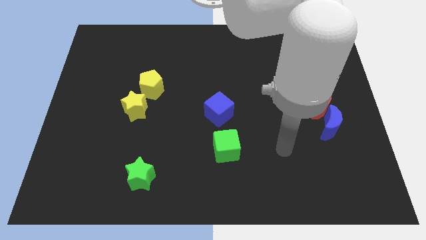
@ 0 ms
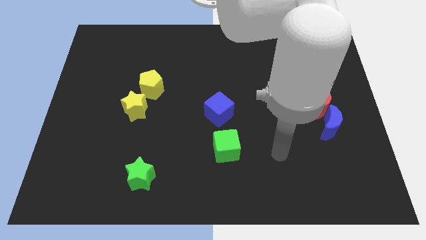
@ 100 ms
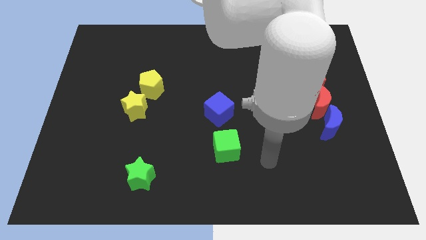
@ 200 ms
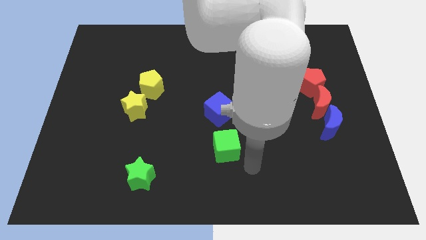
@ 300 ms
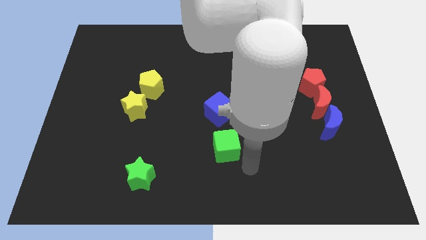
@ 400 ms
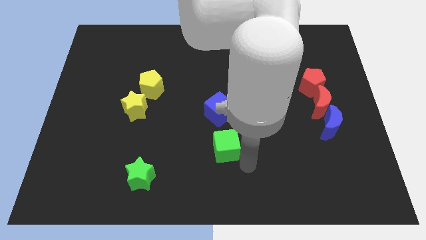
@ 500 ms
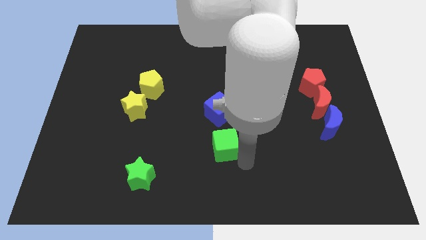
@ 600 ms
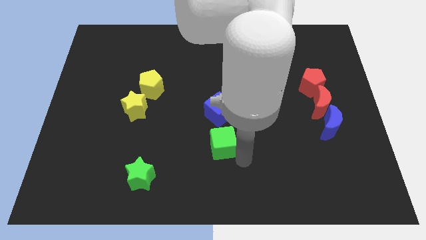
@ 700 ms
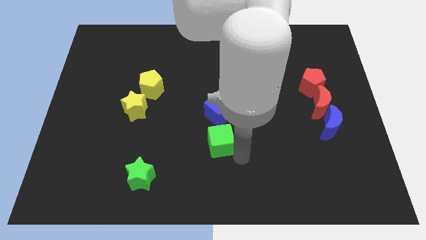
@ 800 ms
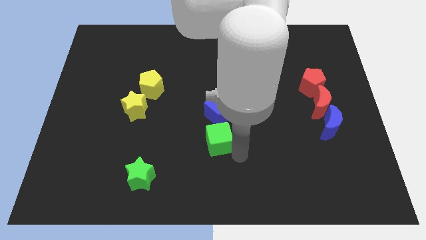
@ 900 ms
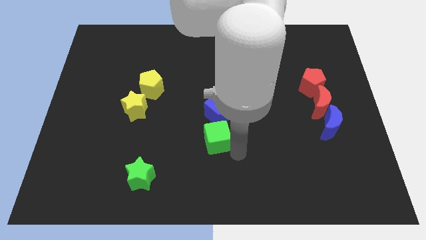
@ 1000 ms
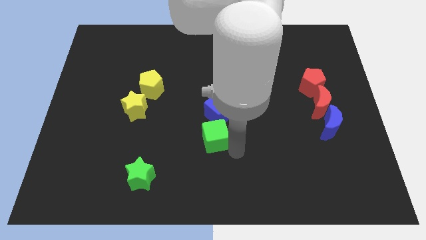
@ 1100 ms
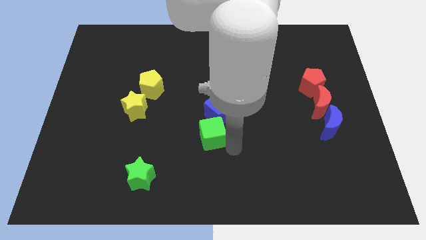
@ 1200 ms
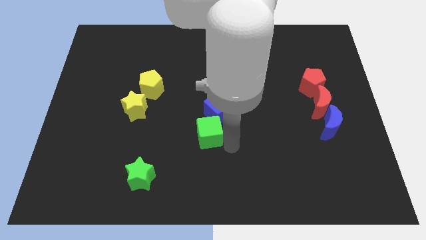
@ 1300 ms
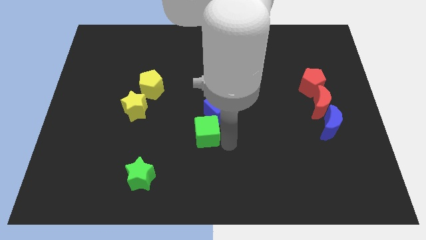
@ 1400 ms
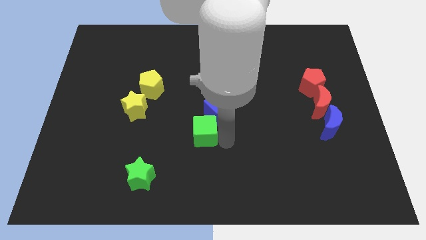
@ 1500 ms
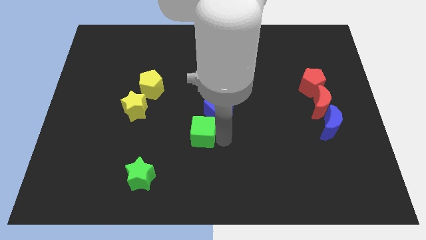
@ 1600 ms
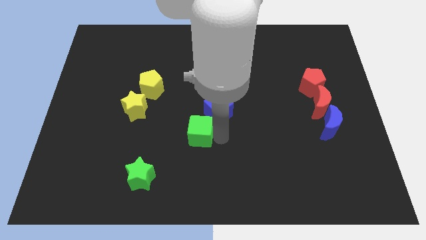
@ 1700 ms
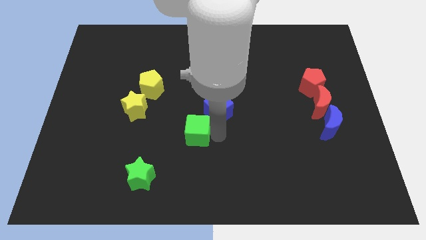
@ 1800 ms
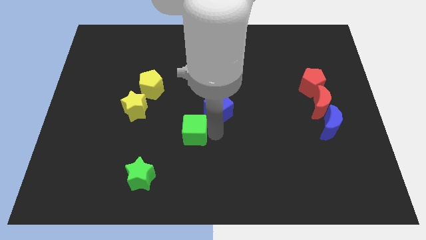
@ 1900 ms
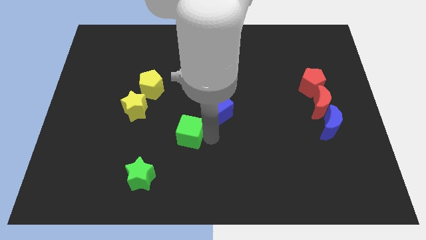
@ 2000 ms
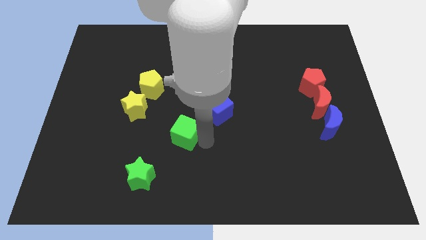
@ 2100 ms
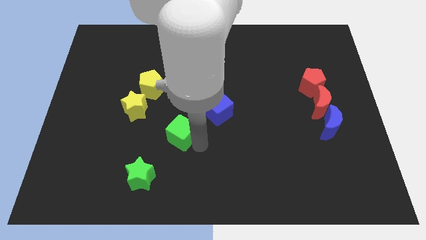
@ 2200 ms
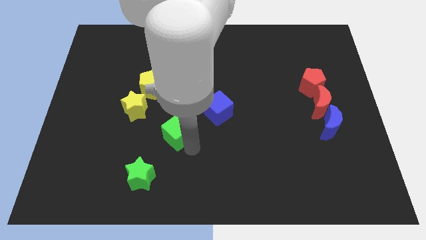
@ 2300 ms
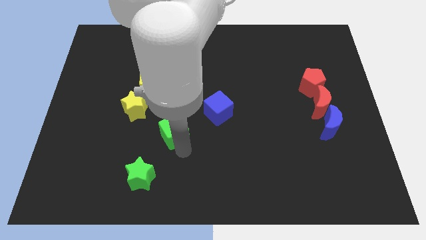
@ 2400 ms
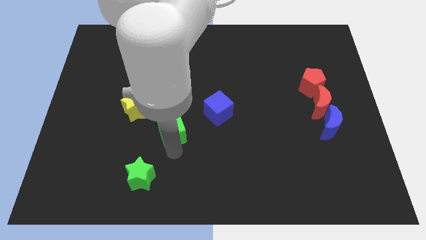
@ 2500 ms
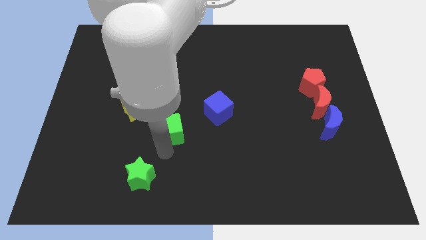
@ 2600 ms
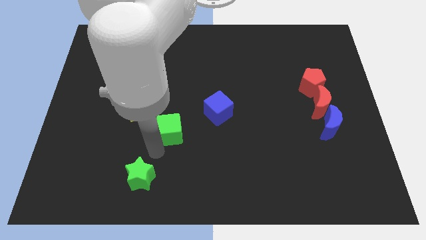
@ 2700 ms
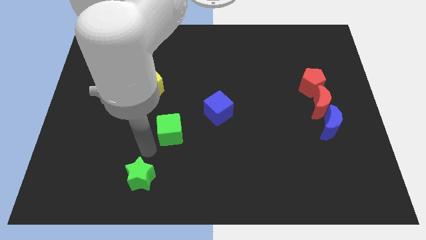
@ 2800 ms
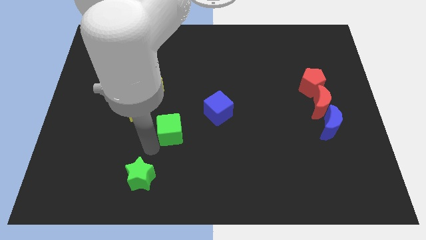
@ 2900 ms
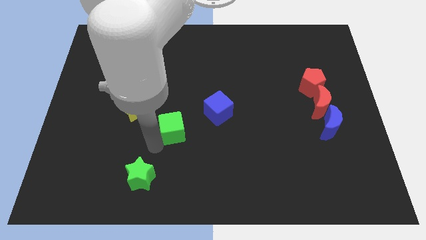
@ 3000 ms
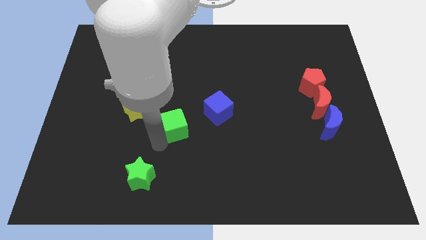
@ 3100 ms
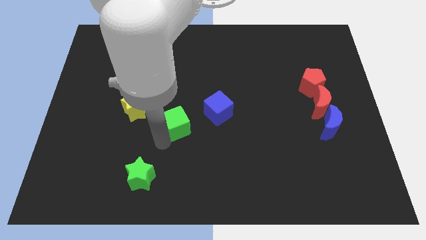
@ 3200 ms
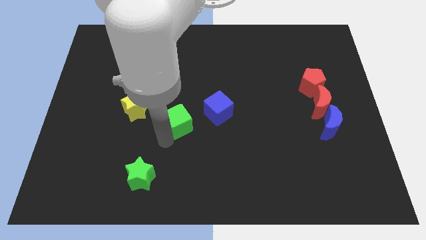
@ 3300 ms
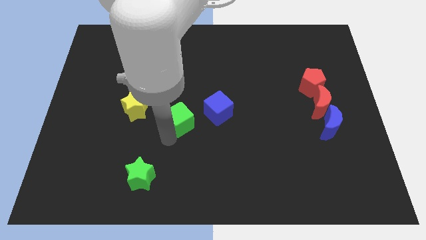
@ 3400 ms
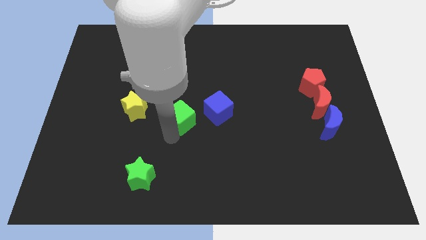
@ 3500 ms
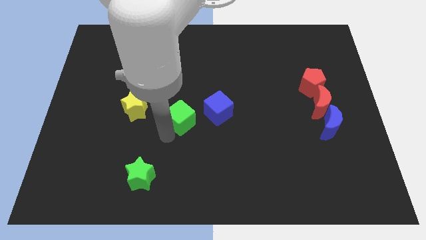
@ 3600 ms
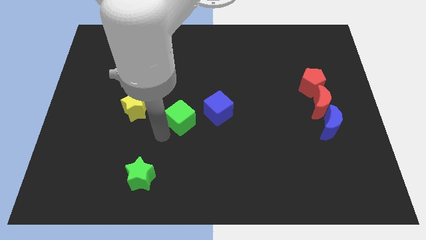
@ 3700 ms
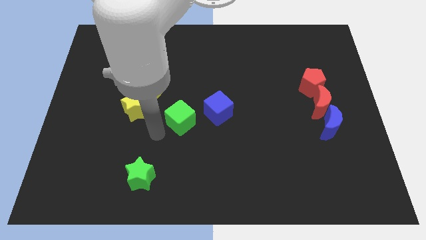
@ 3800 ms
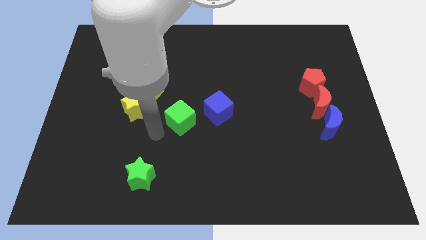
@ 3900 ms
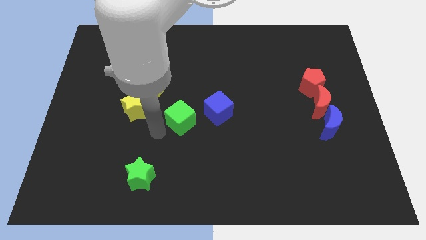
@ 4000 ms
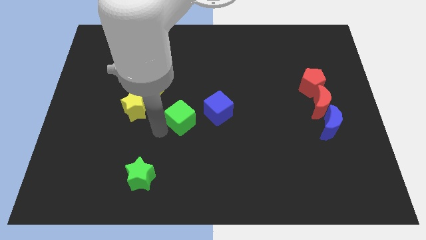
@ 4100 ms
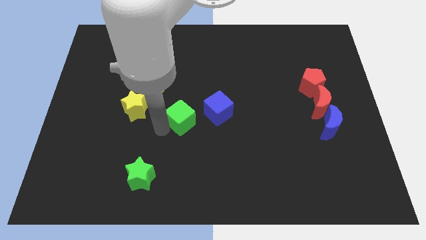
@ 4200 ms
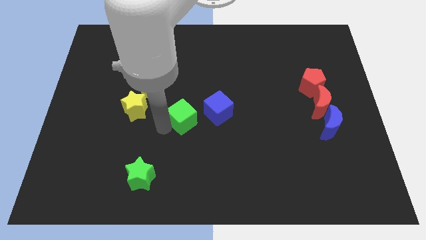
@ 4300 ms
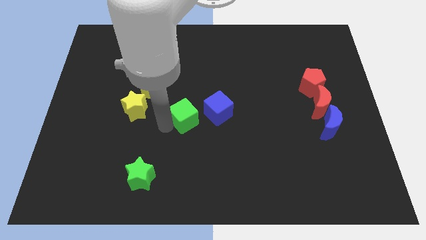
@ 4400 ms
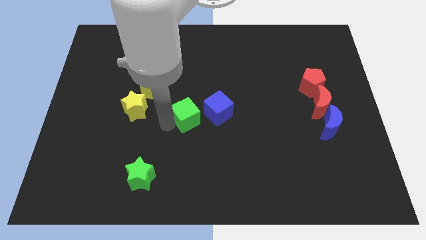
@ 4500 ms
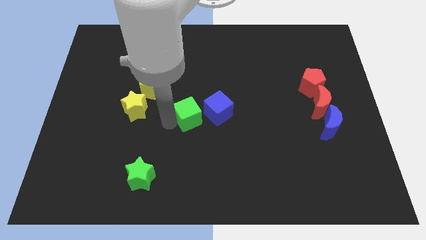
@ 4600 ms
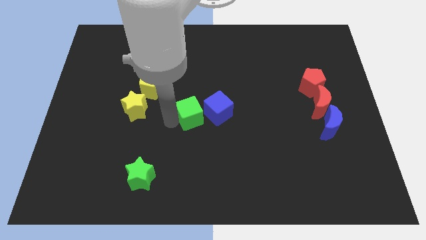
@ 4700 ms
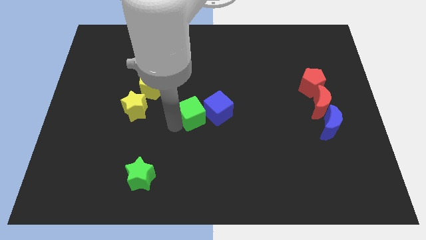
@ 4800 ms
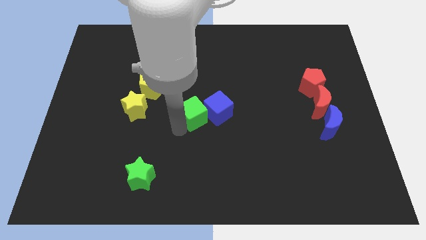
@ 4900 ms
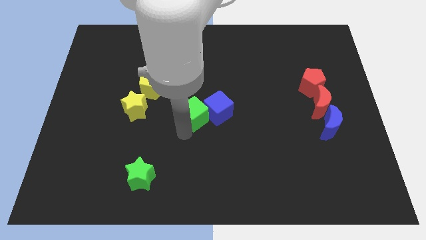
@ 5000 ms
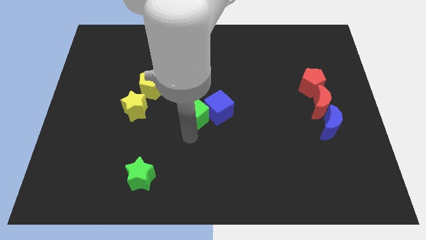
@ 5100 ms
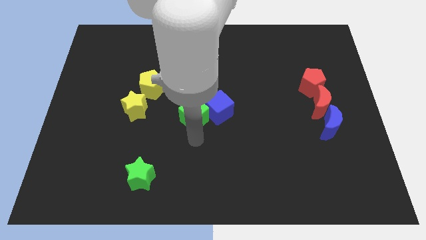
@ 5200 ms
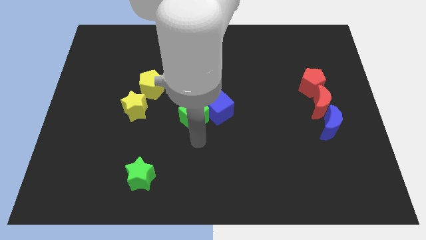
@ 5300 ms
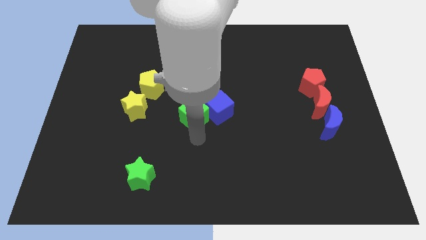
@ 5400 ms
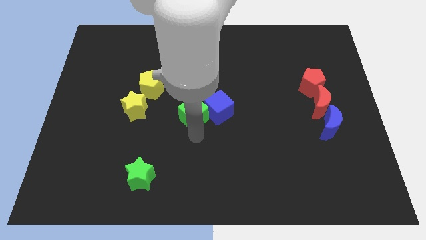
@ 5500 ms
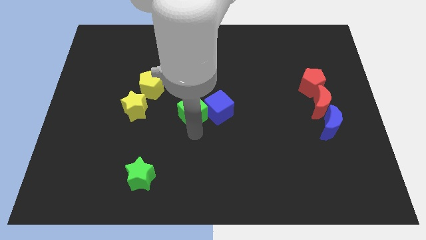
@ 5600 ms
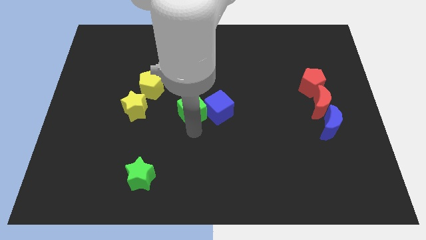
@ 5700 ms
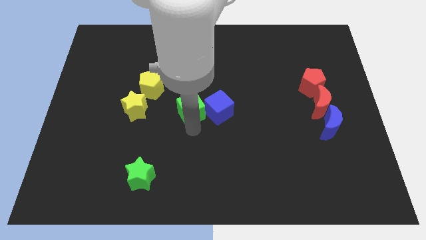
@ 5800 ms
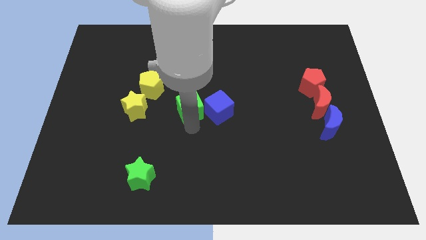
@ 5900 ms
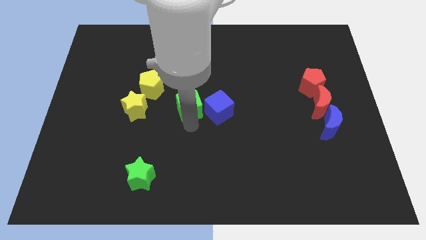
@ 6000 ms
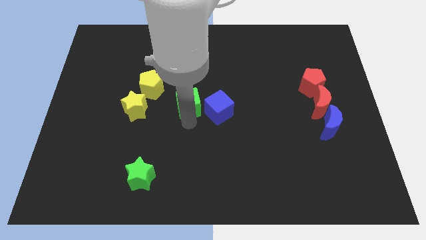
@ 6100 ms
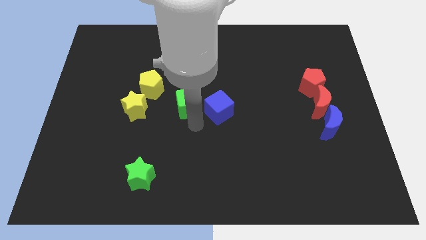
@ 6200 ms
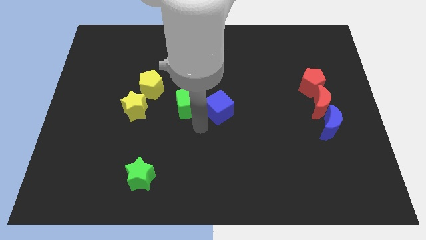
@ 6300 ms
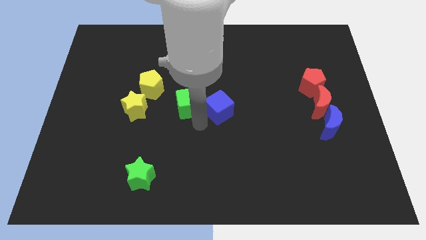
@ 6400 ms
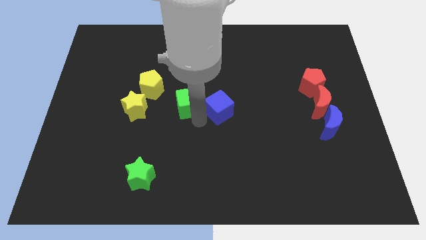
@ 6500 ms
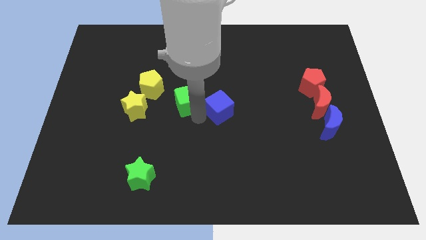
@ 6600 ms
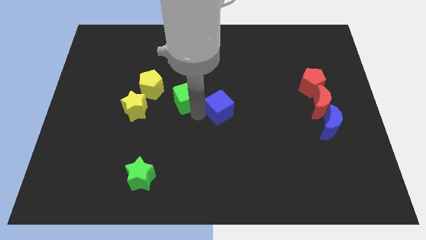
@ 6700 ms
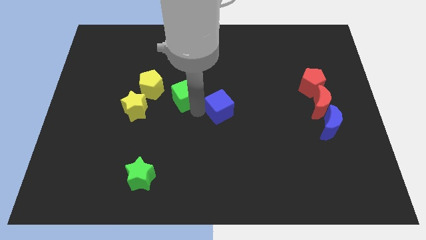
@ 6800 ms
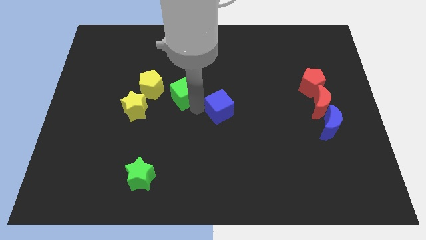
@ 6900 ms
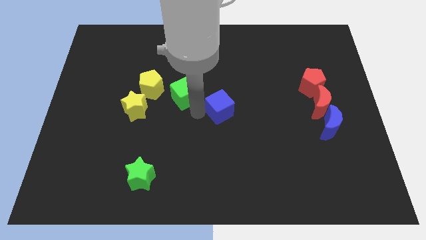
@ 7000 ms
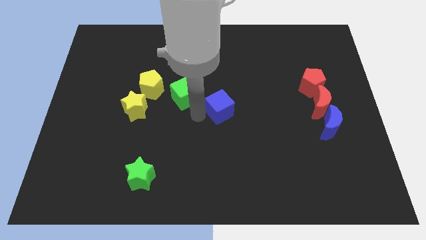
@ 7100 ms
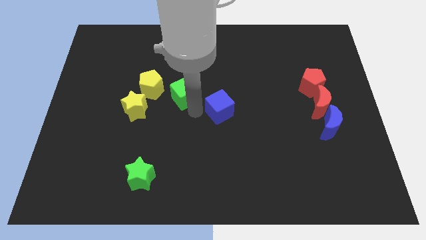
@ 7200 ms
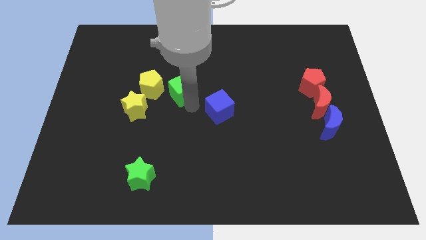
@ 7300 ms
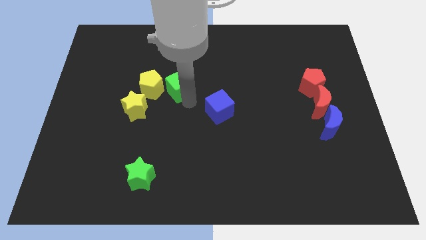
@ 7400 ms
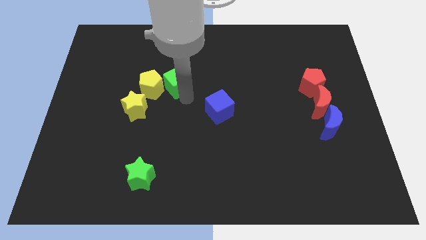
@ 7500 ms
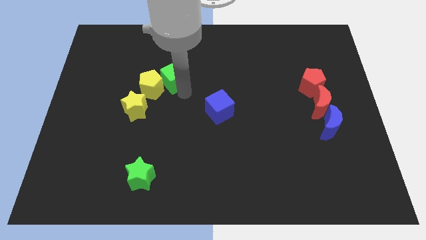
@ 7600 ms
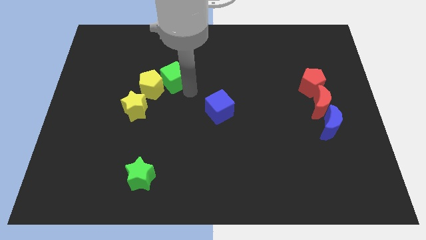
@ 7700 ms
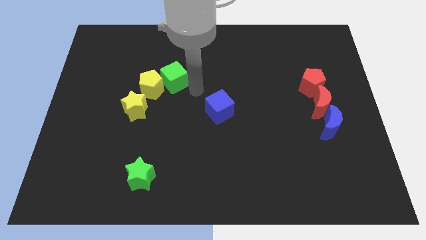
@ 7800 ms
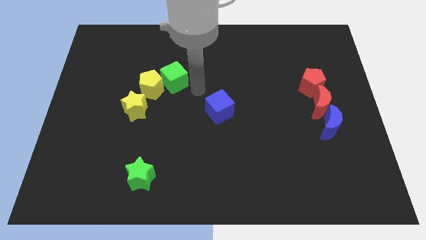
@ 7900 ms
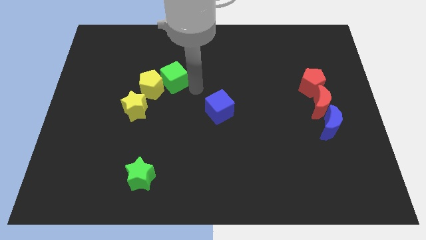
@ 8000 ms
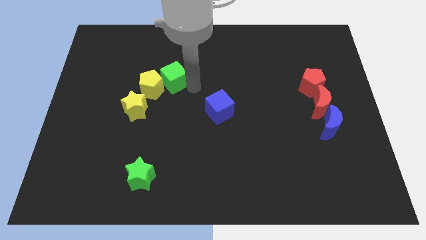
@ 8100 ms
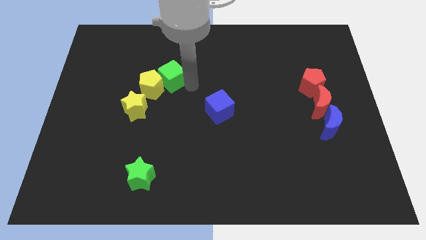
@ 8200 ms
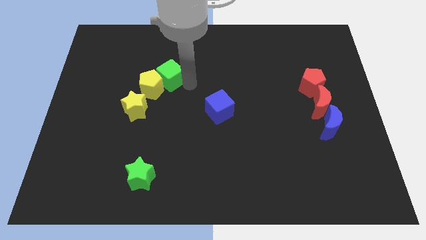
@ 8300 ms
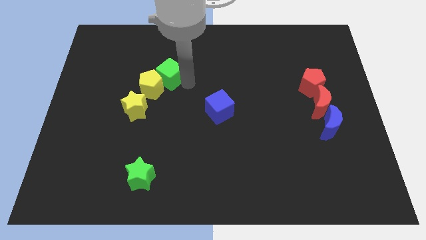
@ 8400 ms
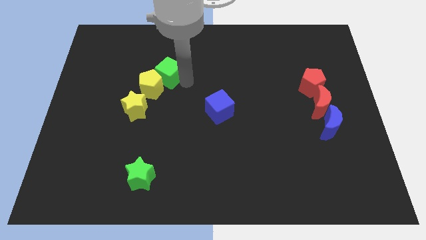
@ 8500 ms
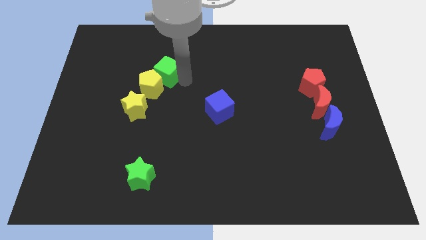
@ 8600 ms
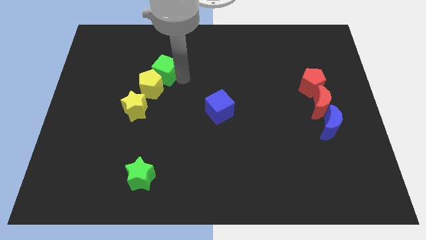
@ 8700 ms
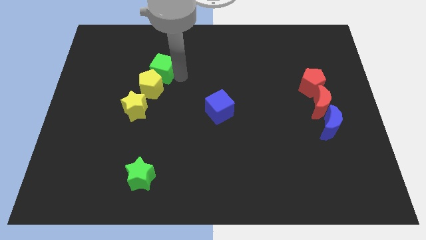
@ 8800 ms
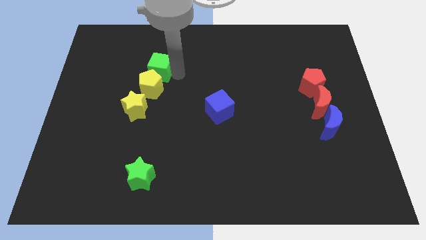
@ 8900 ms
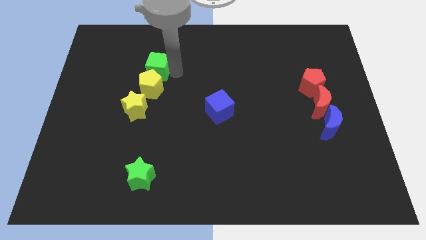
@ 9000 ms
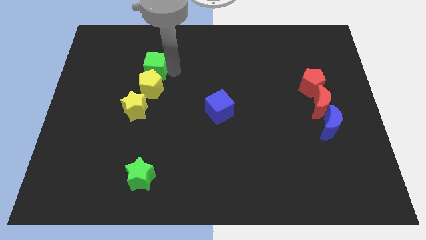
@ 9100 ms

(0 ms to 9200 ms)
move the green cube to the top left side of the yellow pentagon
